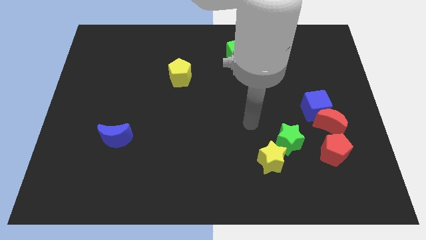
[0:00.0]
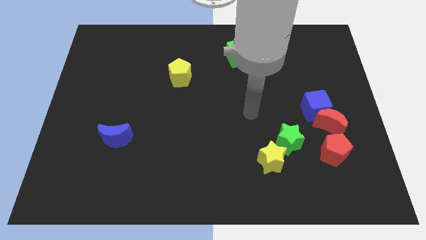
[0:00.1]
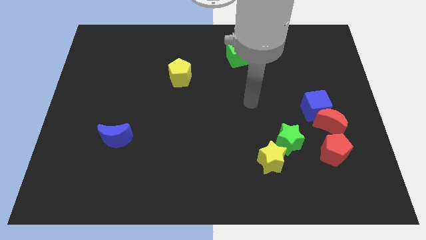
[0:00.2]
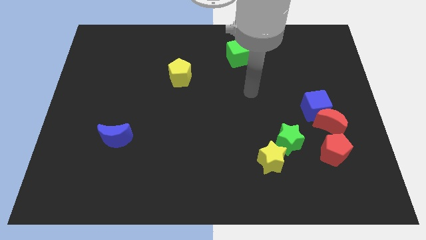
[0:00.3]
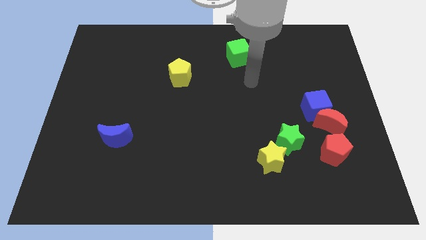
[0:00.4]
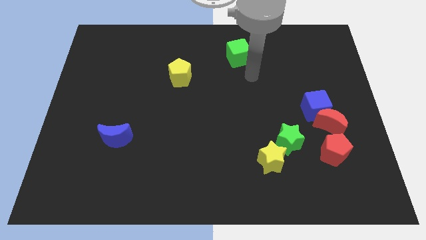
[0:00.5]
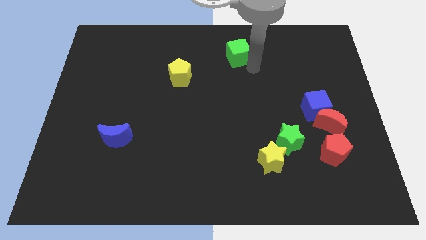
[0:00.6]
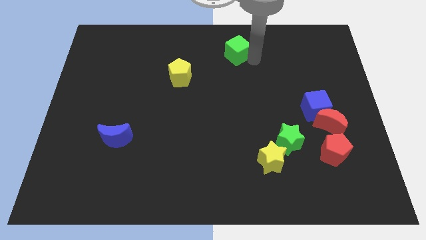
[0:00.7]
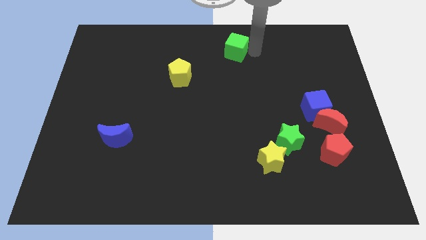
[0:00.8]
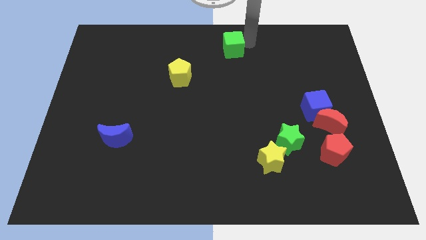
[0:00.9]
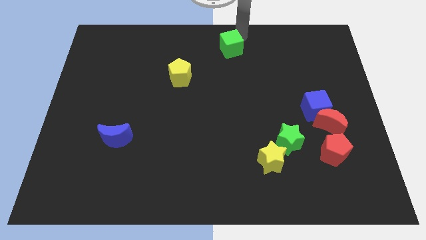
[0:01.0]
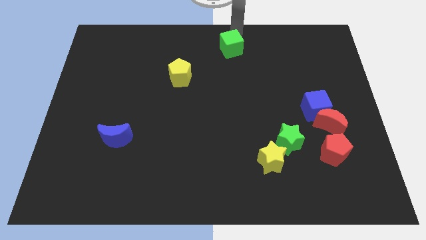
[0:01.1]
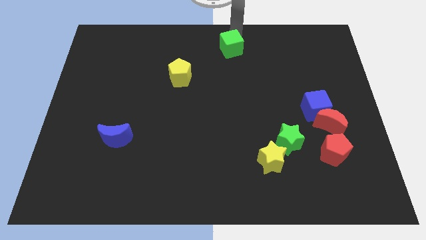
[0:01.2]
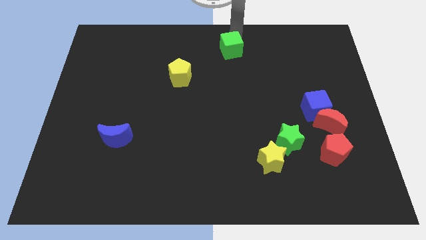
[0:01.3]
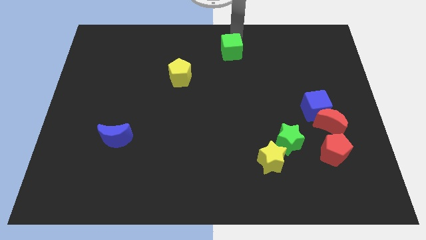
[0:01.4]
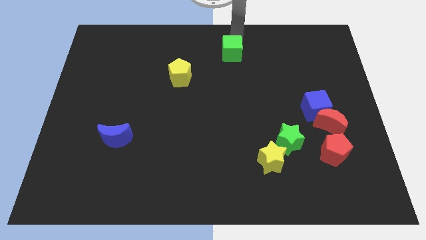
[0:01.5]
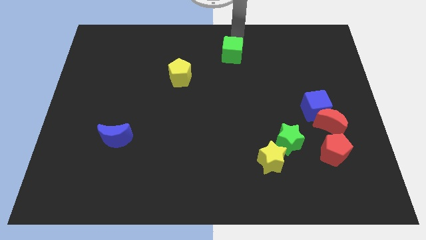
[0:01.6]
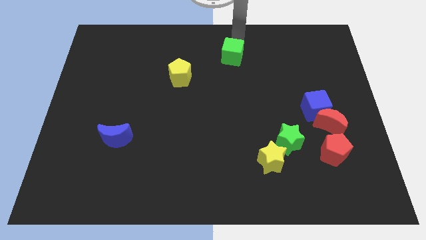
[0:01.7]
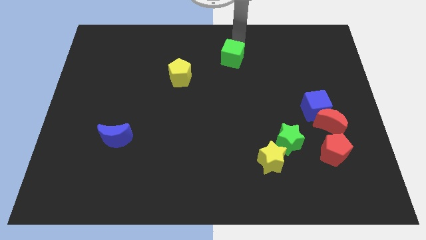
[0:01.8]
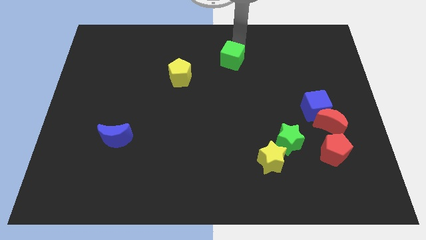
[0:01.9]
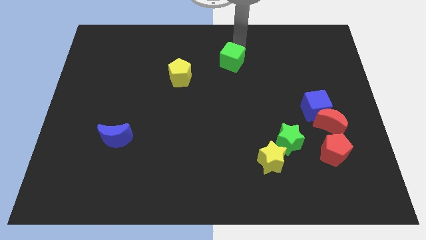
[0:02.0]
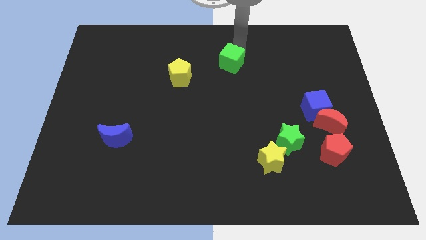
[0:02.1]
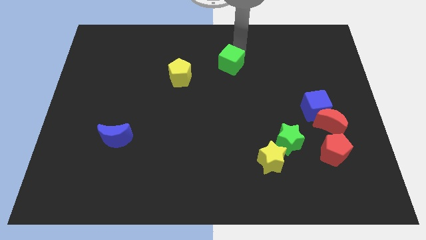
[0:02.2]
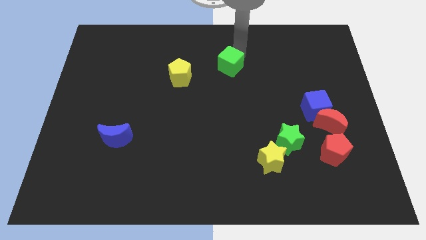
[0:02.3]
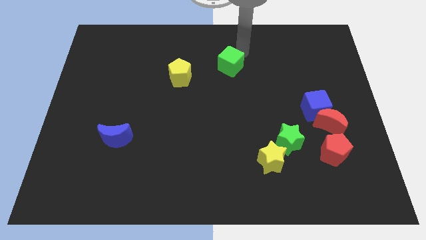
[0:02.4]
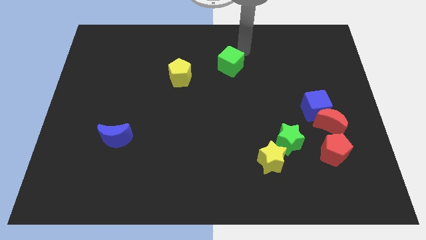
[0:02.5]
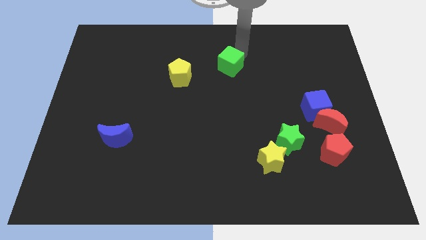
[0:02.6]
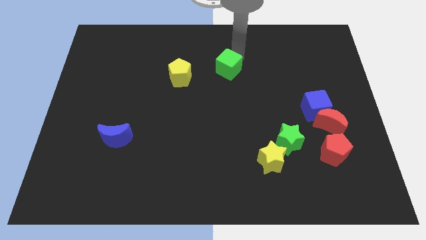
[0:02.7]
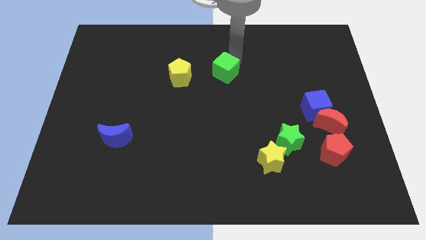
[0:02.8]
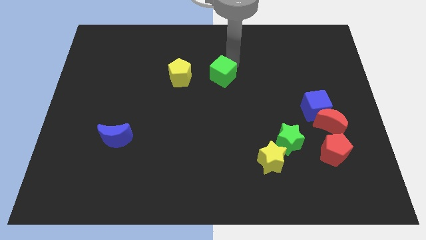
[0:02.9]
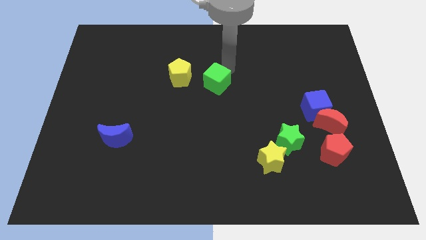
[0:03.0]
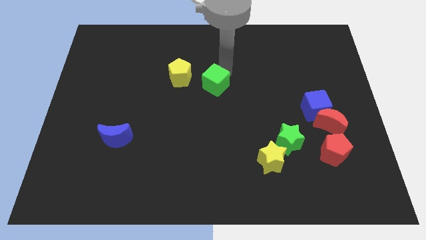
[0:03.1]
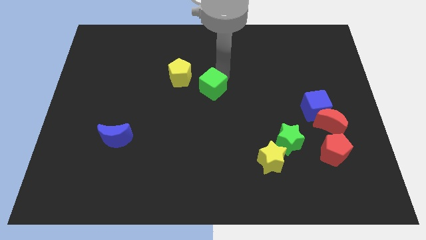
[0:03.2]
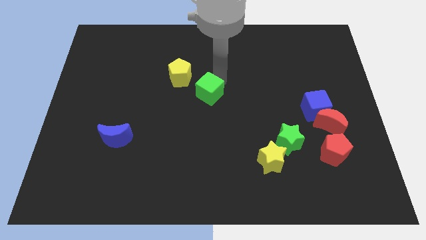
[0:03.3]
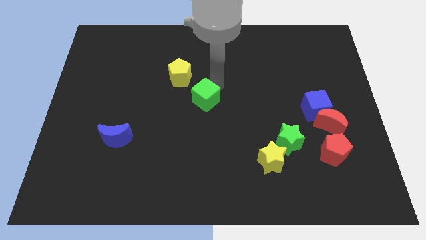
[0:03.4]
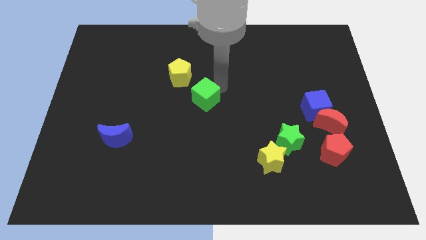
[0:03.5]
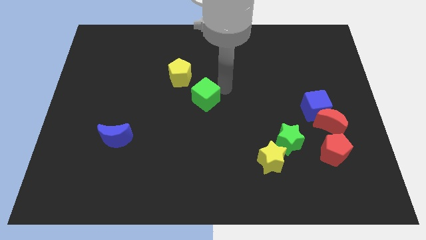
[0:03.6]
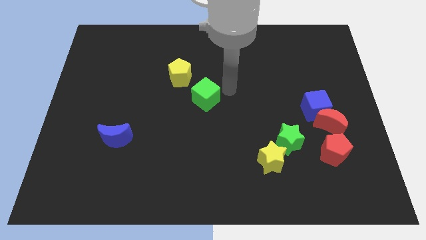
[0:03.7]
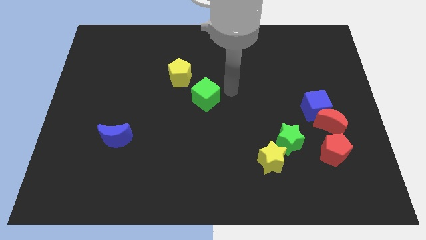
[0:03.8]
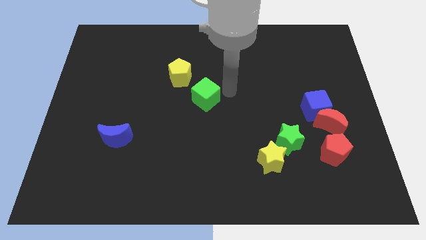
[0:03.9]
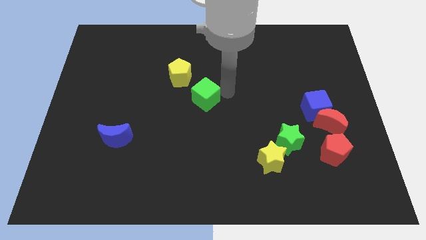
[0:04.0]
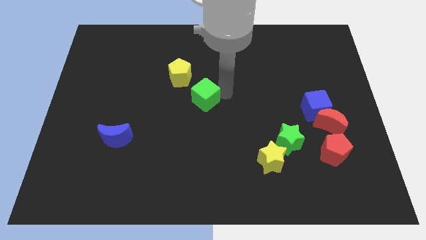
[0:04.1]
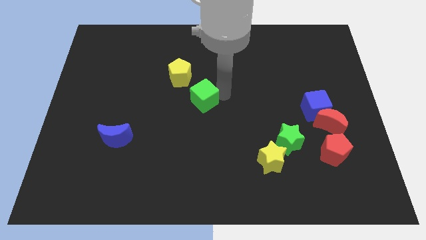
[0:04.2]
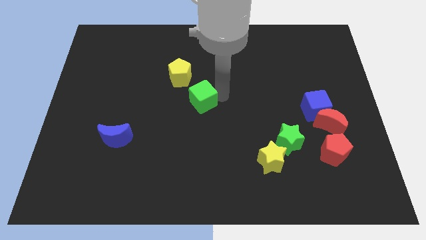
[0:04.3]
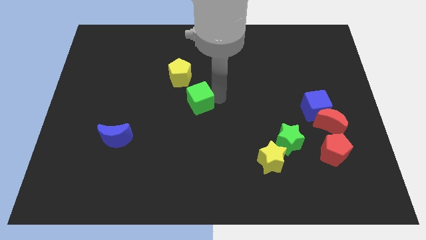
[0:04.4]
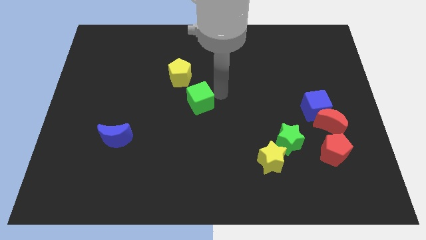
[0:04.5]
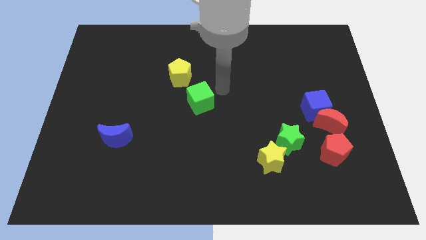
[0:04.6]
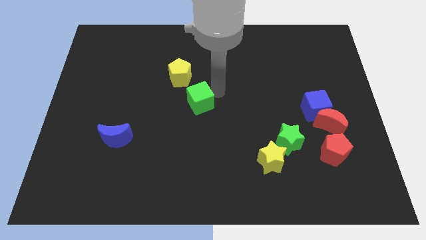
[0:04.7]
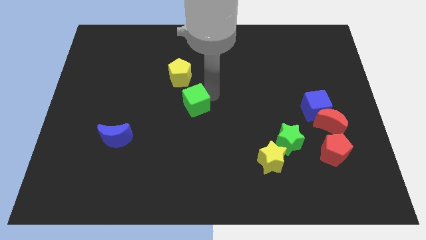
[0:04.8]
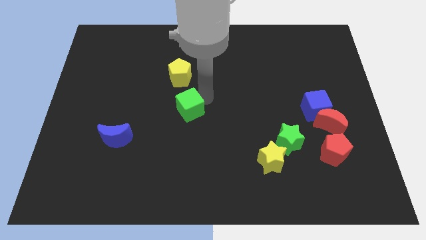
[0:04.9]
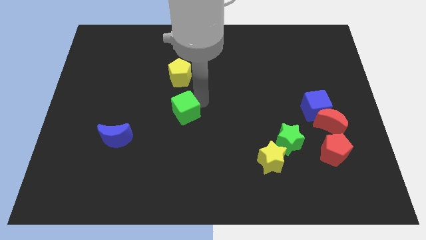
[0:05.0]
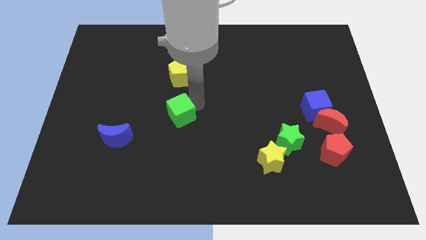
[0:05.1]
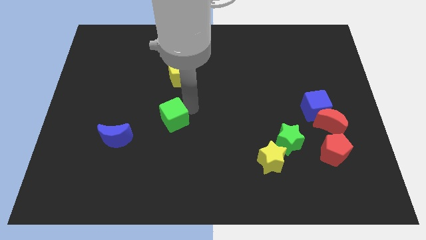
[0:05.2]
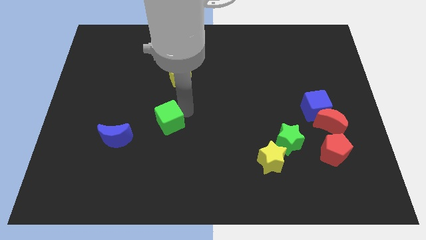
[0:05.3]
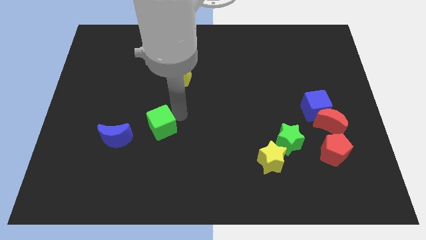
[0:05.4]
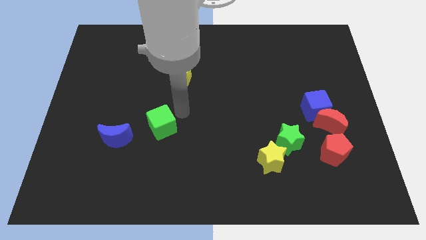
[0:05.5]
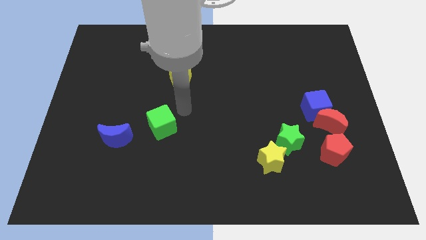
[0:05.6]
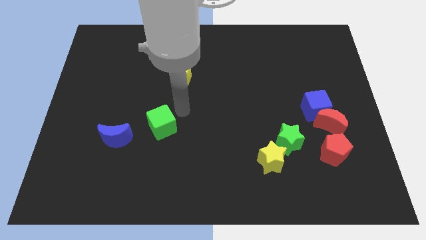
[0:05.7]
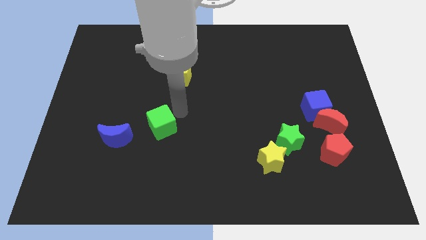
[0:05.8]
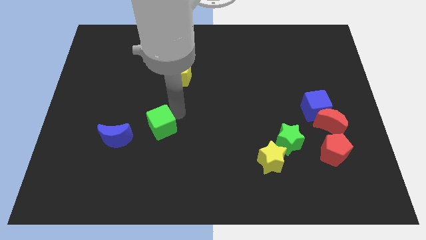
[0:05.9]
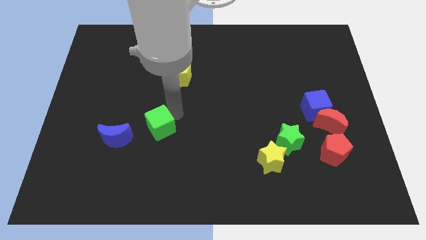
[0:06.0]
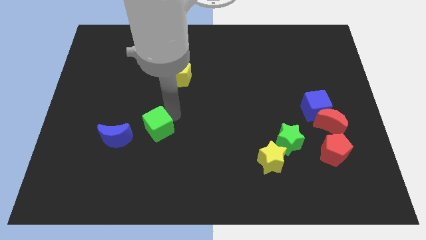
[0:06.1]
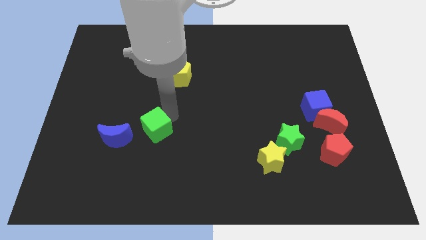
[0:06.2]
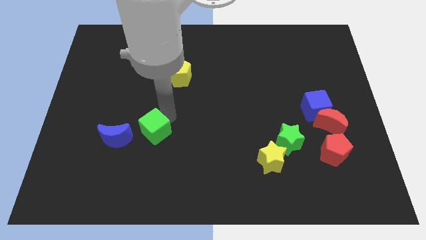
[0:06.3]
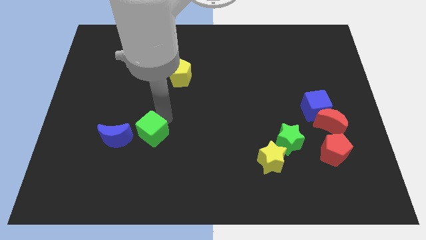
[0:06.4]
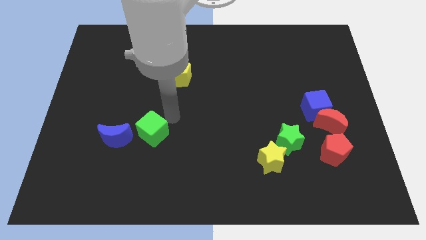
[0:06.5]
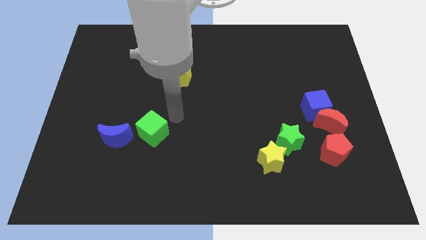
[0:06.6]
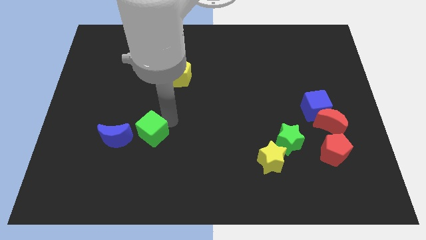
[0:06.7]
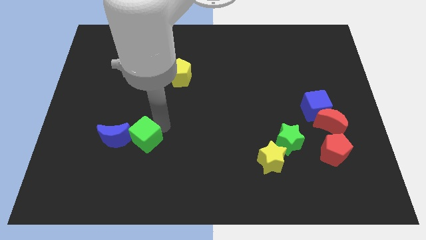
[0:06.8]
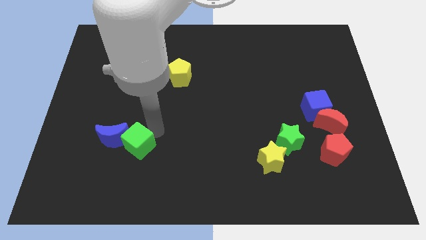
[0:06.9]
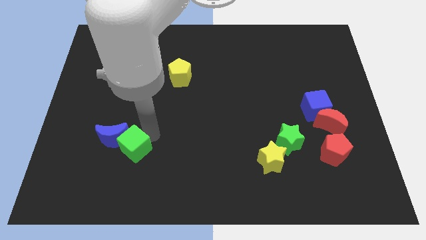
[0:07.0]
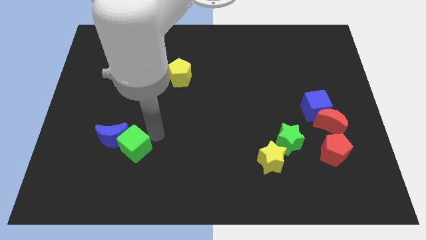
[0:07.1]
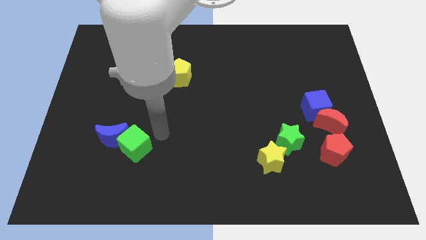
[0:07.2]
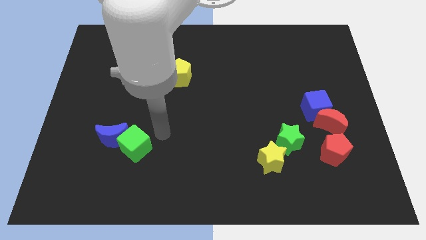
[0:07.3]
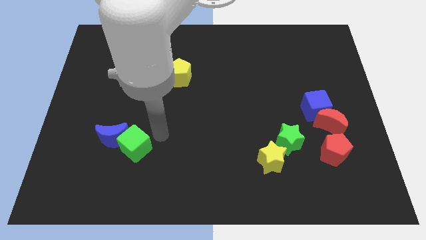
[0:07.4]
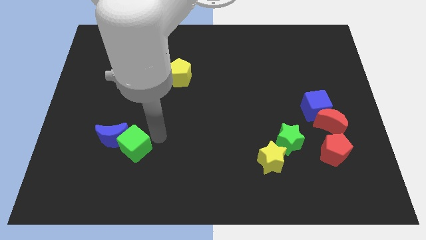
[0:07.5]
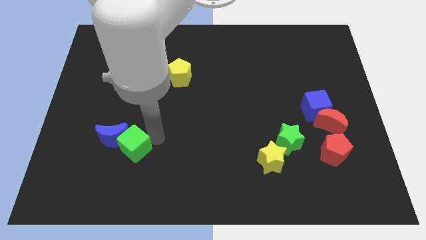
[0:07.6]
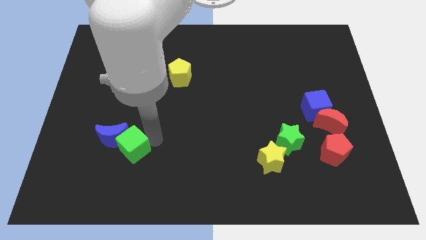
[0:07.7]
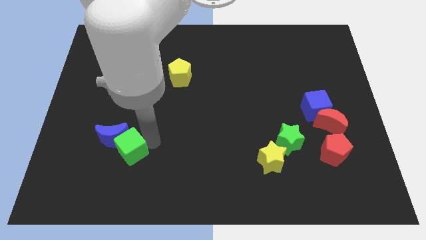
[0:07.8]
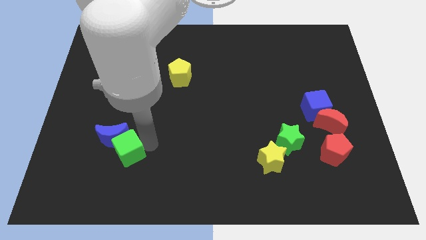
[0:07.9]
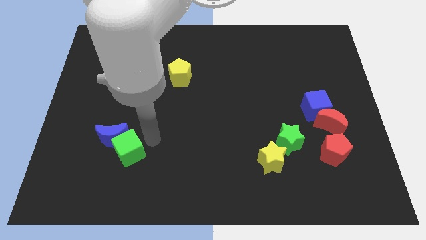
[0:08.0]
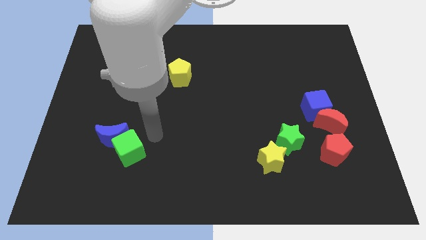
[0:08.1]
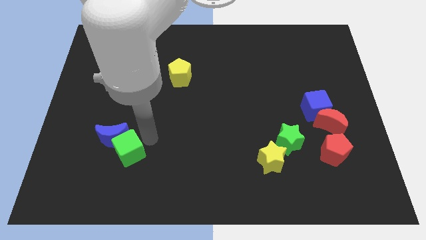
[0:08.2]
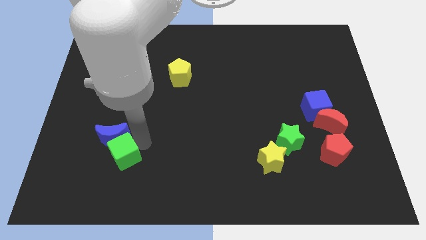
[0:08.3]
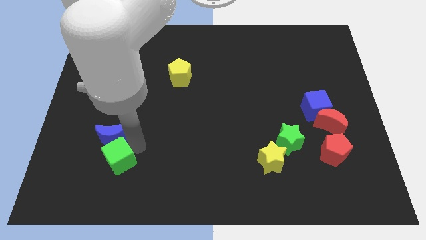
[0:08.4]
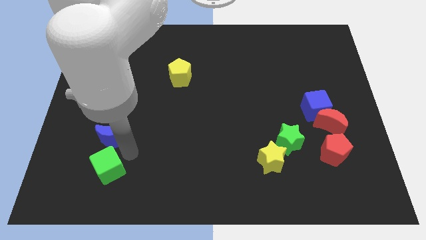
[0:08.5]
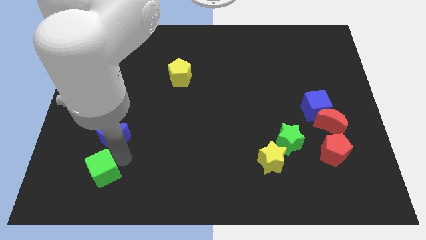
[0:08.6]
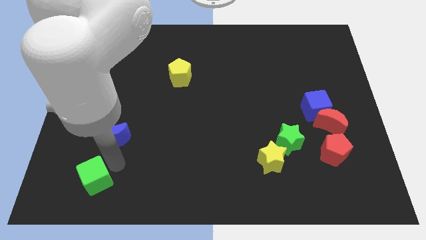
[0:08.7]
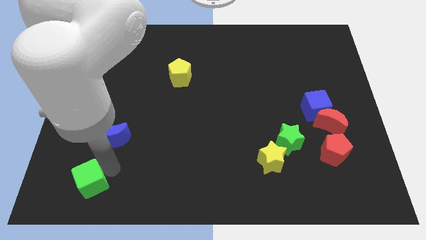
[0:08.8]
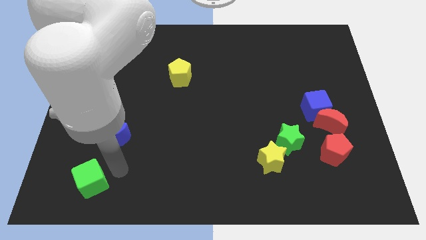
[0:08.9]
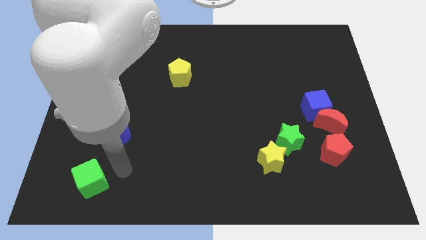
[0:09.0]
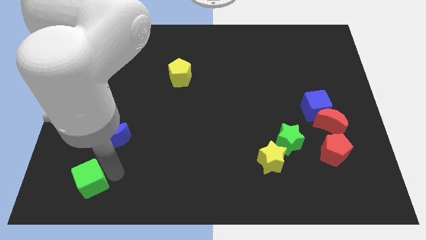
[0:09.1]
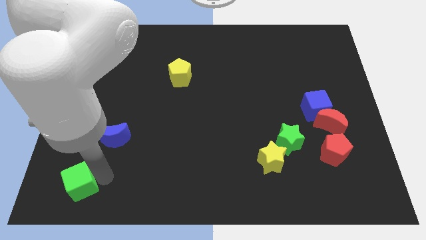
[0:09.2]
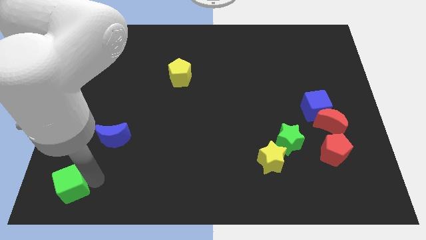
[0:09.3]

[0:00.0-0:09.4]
push the green cube to the lower left corner
